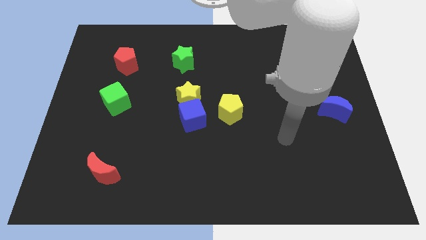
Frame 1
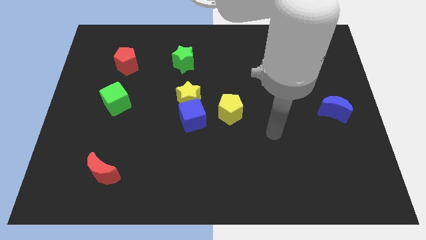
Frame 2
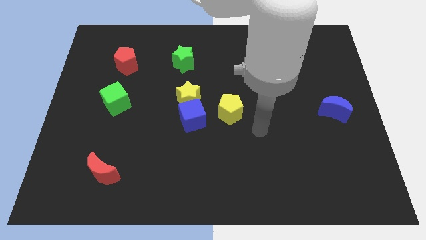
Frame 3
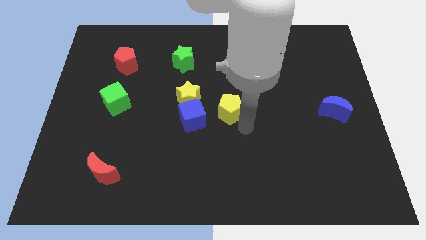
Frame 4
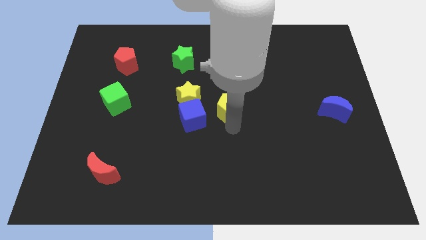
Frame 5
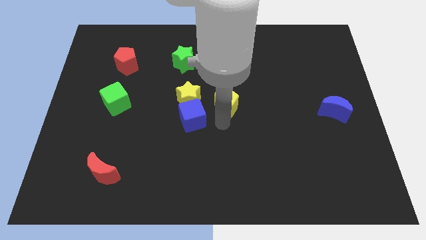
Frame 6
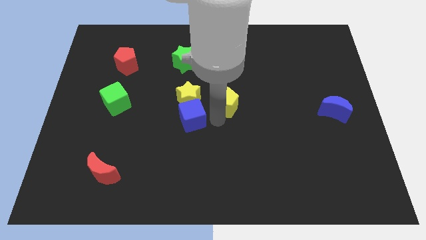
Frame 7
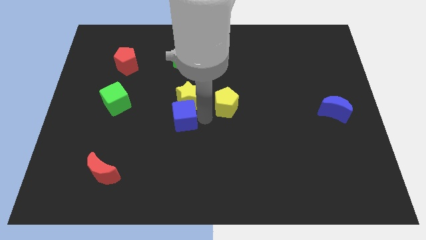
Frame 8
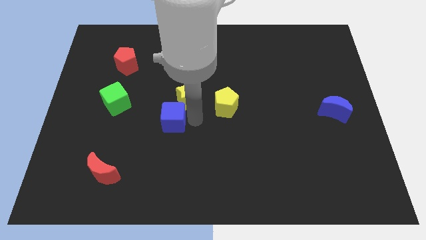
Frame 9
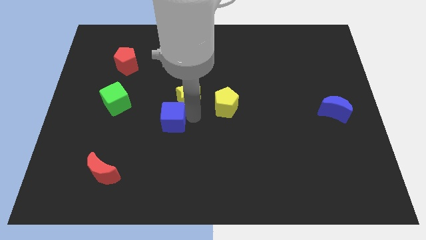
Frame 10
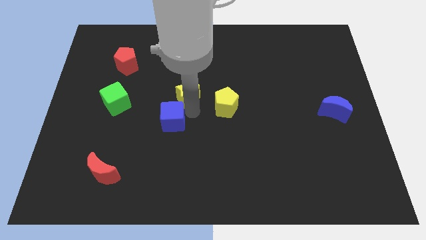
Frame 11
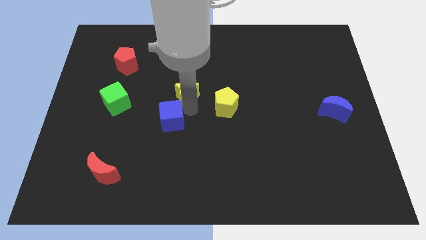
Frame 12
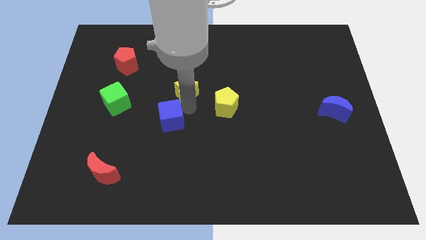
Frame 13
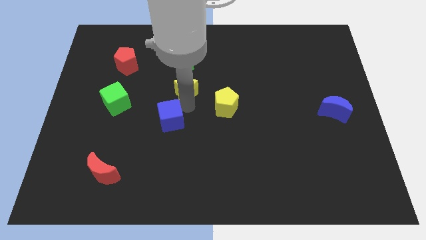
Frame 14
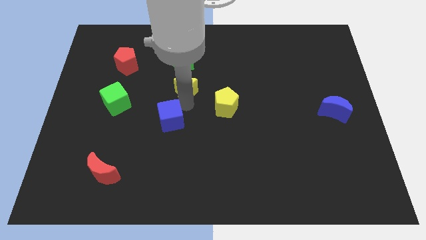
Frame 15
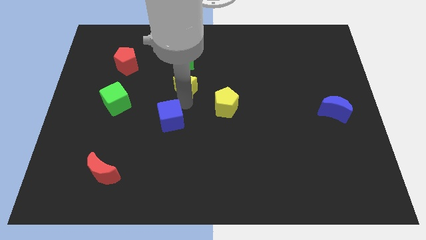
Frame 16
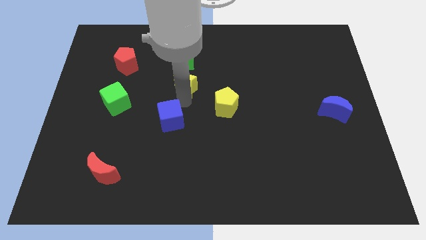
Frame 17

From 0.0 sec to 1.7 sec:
pull the yellow star apart from the blue cube

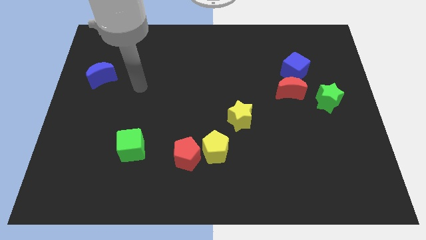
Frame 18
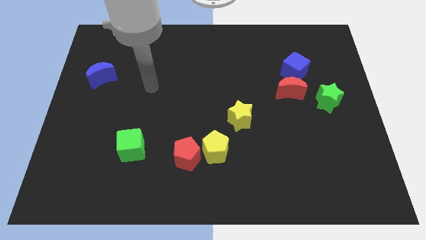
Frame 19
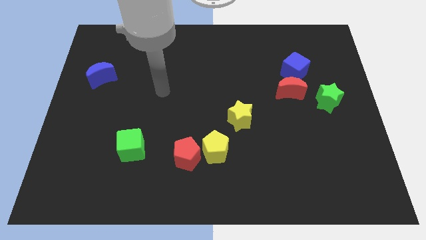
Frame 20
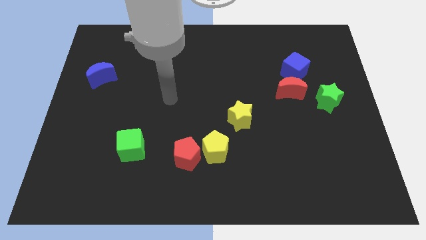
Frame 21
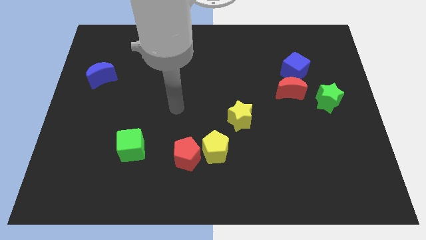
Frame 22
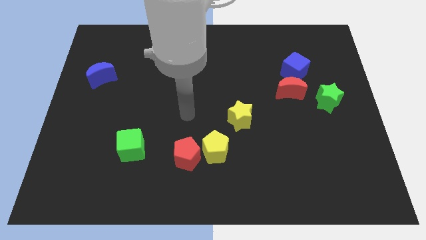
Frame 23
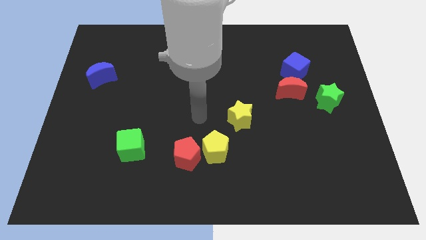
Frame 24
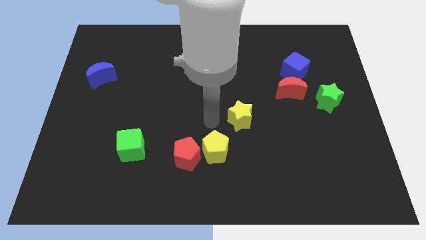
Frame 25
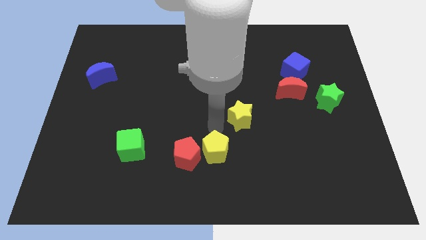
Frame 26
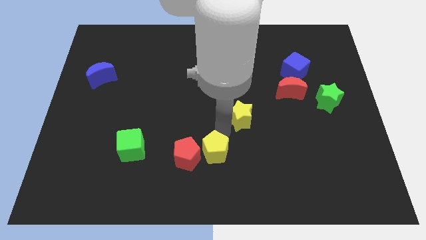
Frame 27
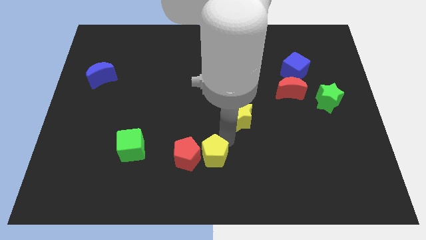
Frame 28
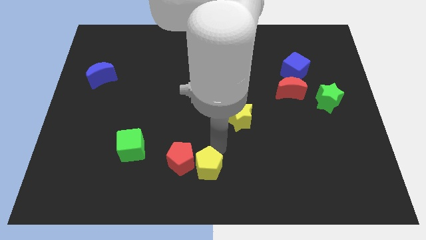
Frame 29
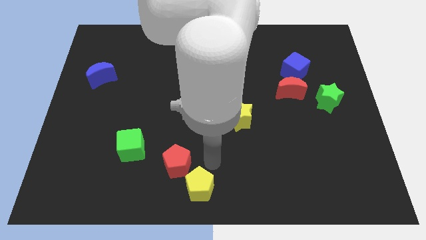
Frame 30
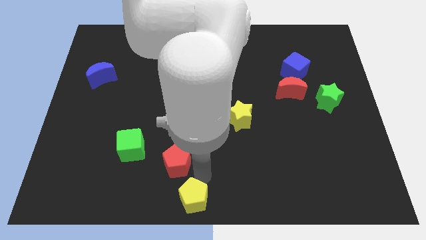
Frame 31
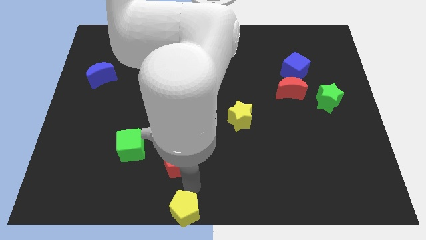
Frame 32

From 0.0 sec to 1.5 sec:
move the red pentagon away from the yellow pentagon

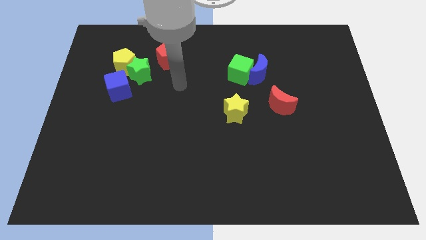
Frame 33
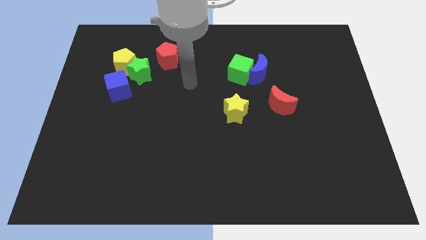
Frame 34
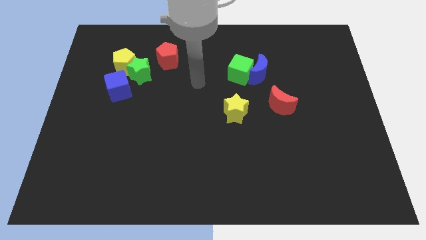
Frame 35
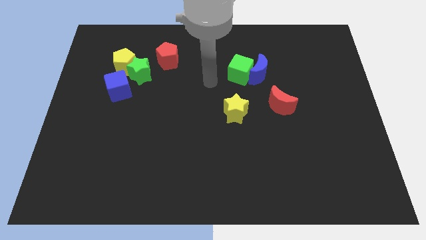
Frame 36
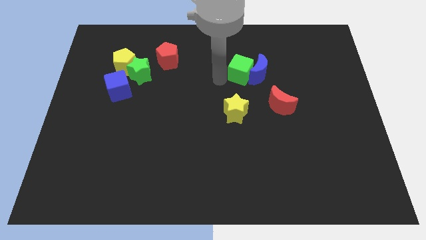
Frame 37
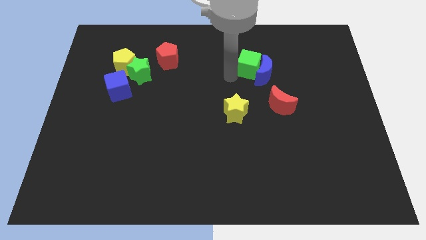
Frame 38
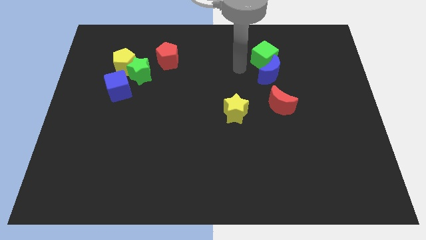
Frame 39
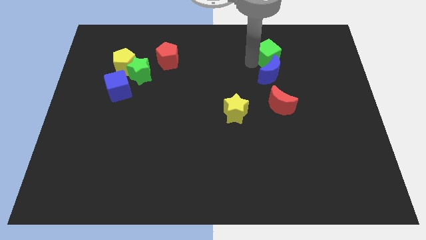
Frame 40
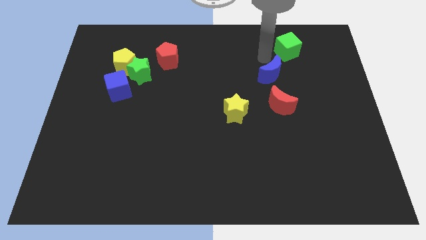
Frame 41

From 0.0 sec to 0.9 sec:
separate the blue moon from the green cube

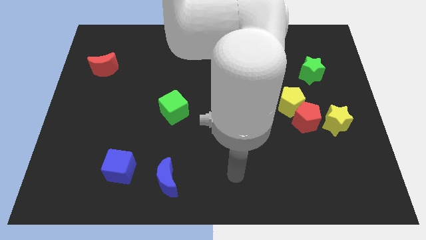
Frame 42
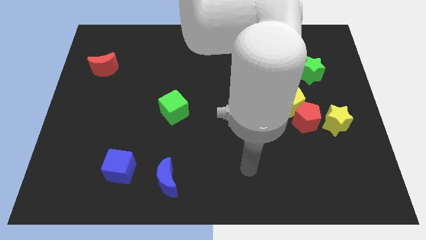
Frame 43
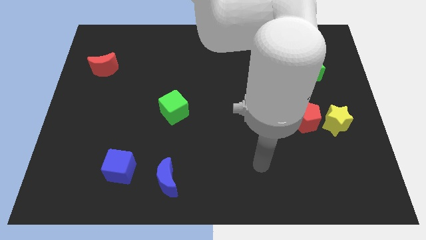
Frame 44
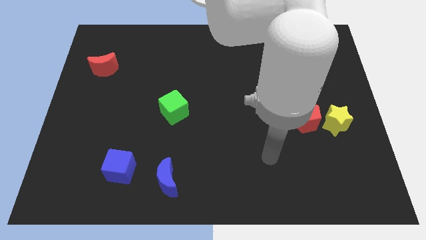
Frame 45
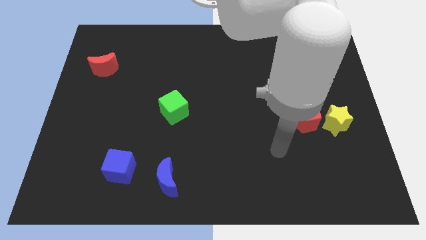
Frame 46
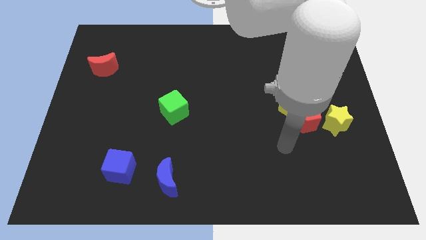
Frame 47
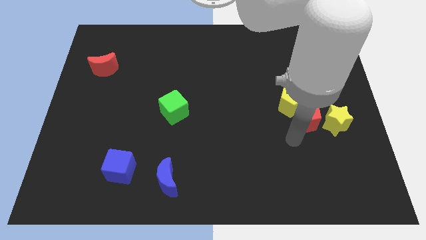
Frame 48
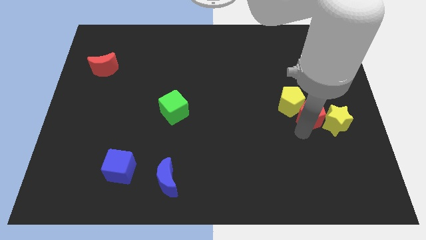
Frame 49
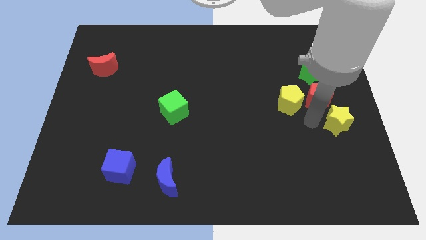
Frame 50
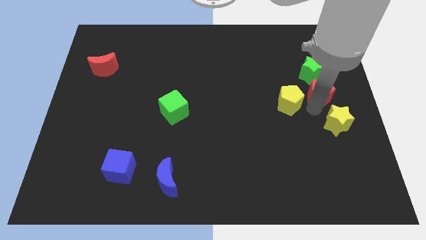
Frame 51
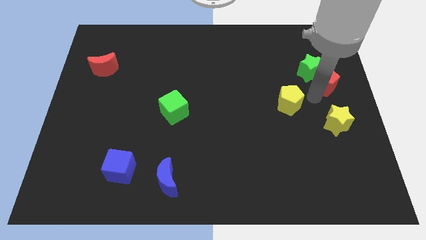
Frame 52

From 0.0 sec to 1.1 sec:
move the yellow pentagon away from the red pentagon

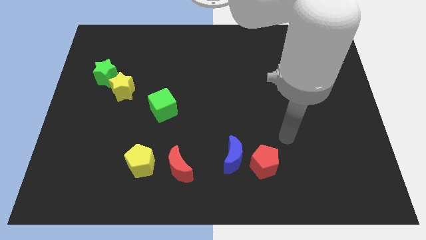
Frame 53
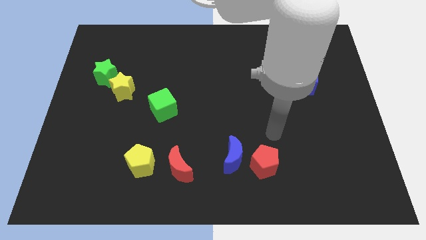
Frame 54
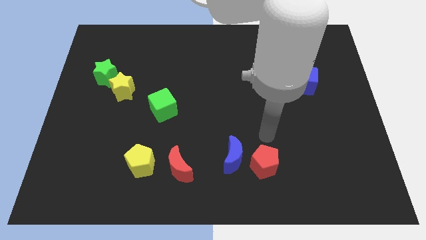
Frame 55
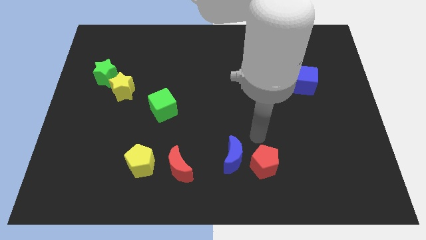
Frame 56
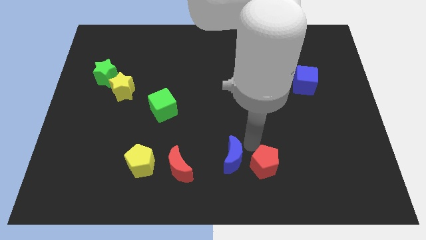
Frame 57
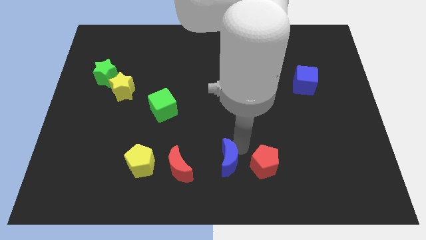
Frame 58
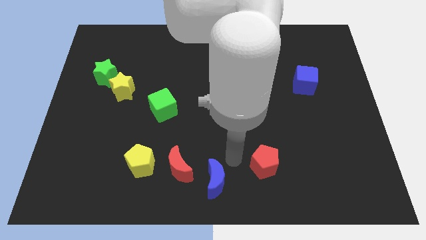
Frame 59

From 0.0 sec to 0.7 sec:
pull the red pentagon apart from the blue moon

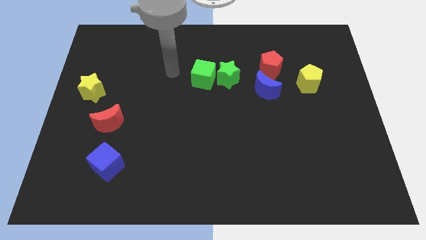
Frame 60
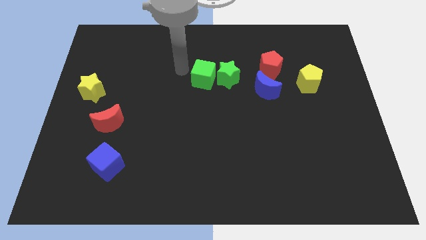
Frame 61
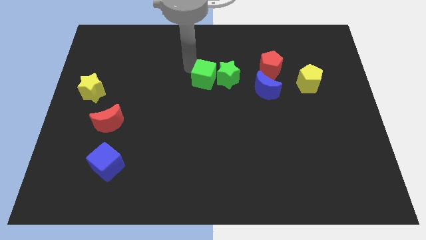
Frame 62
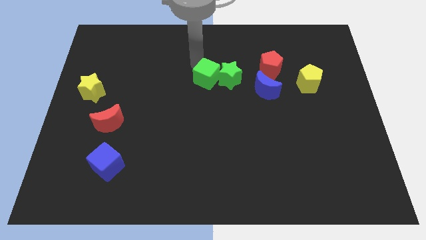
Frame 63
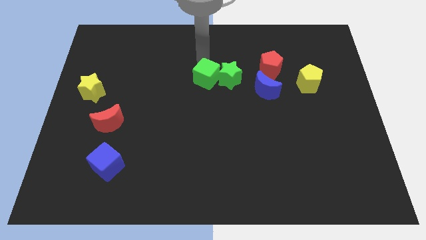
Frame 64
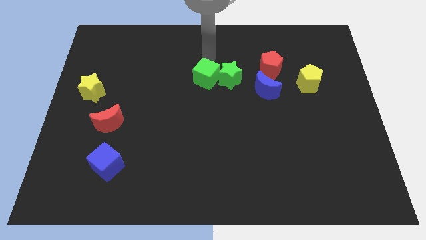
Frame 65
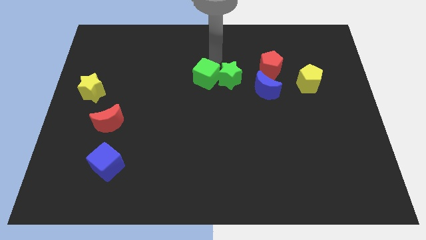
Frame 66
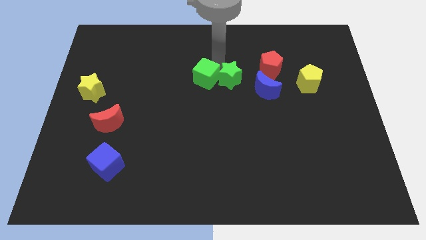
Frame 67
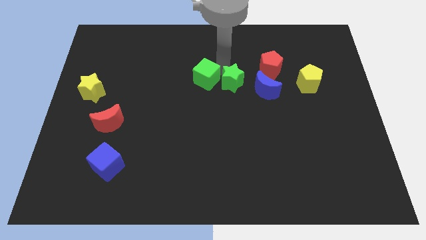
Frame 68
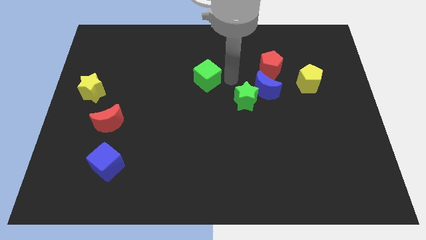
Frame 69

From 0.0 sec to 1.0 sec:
pull the green cube apart from the green star

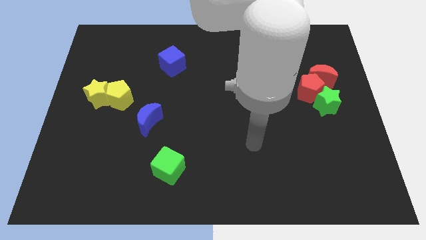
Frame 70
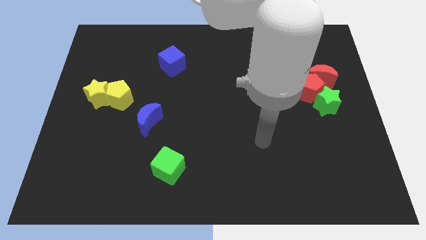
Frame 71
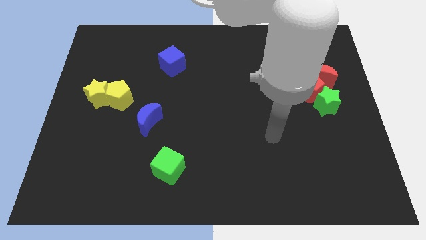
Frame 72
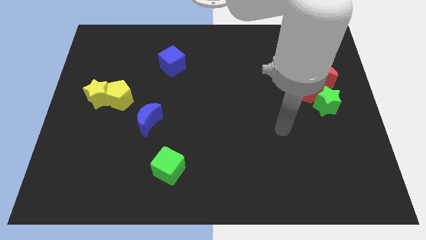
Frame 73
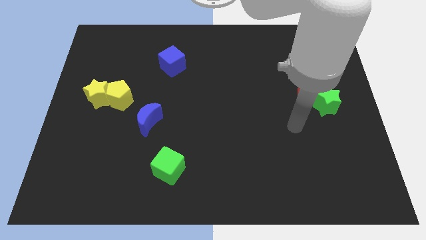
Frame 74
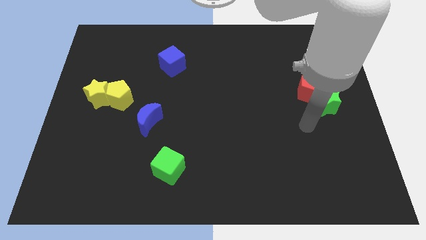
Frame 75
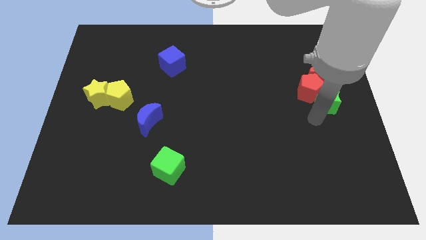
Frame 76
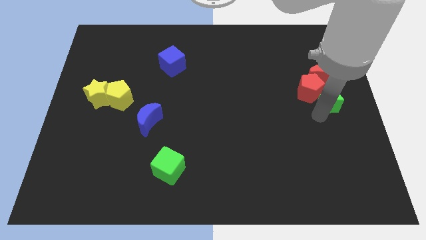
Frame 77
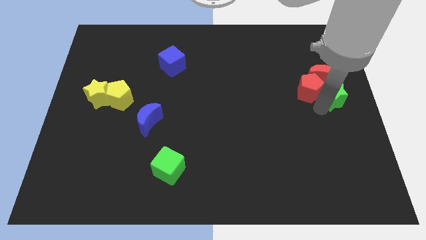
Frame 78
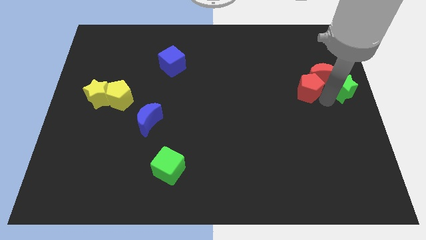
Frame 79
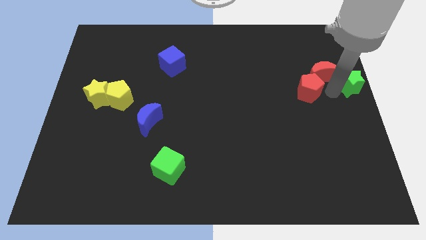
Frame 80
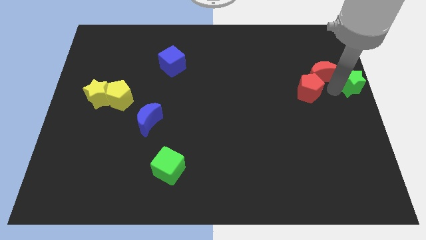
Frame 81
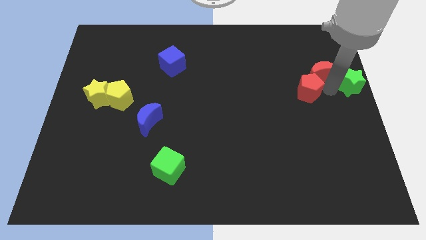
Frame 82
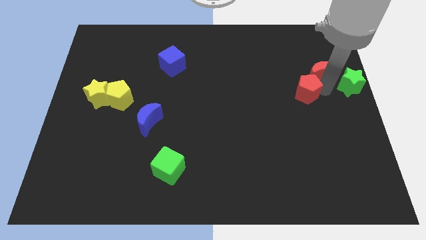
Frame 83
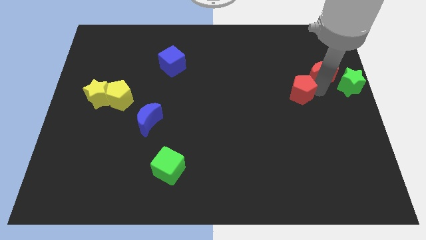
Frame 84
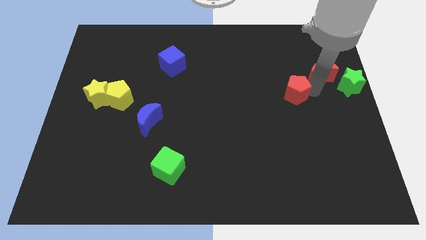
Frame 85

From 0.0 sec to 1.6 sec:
pull the red pentagon apart from the green star and red moon

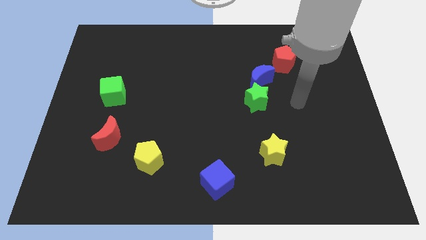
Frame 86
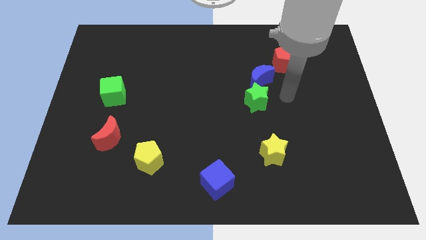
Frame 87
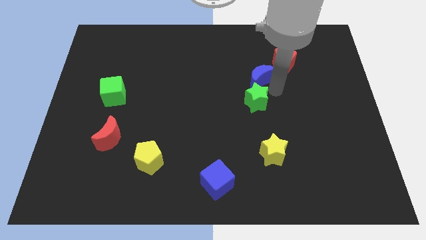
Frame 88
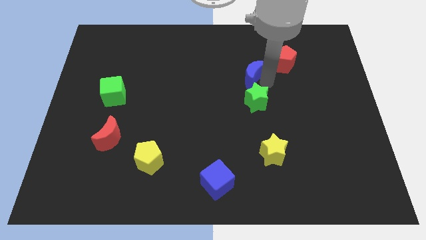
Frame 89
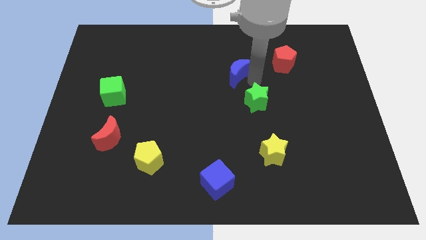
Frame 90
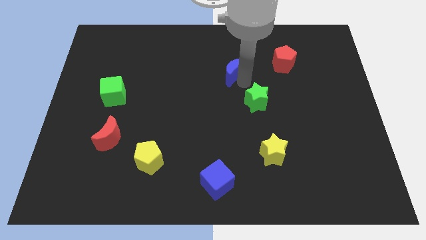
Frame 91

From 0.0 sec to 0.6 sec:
move the green star away from the blue moon

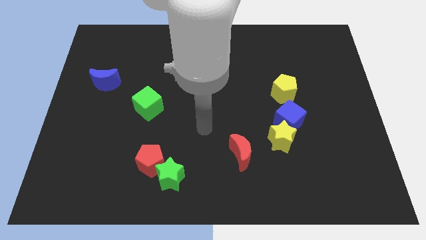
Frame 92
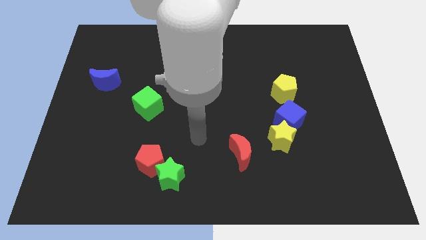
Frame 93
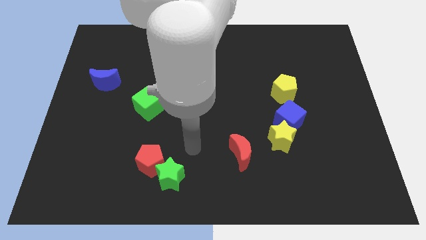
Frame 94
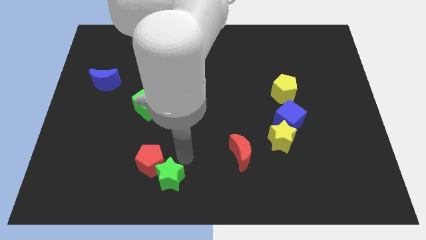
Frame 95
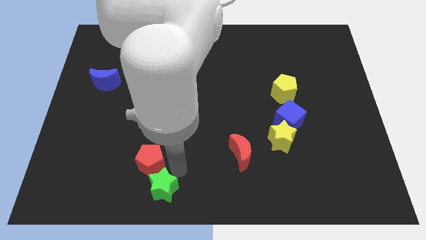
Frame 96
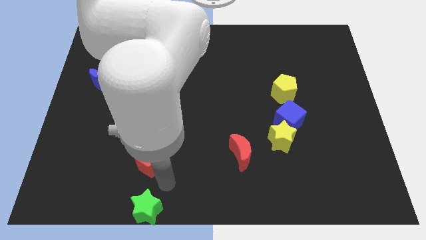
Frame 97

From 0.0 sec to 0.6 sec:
pull the red pentagon apart from the green star
